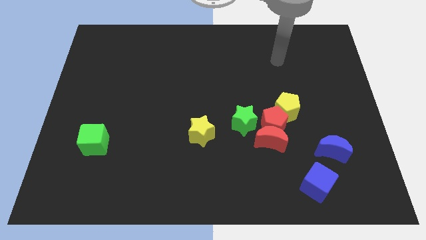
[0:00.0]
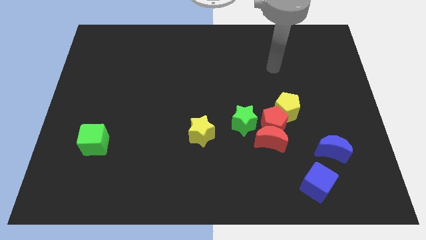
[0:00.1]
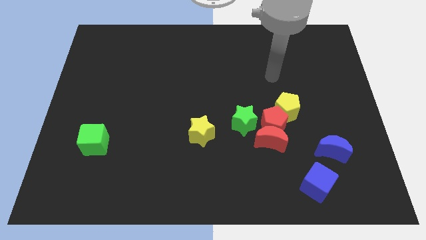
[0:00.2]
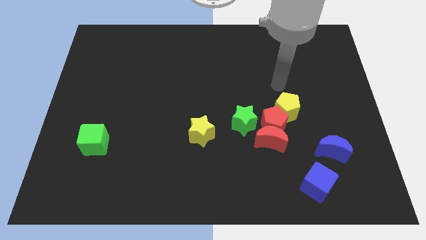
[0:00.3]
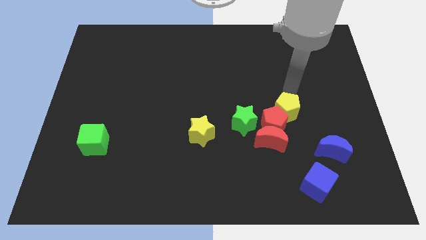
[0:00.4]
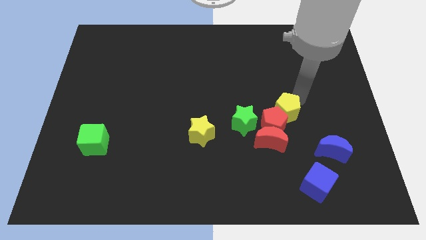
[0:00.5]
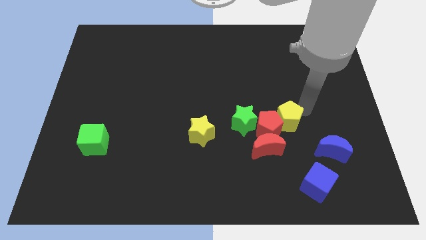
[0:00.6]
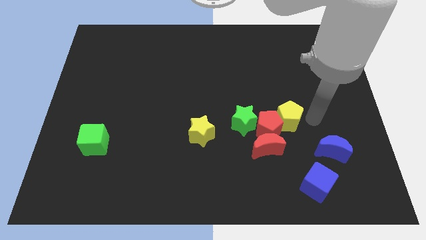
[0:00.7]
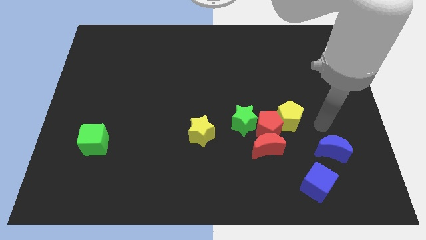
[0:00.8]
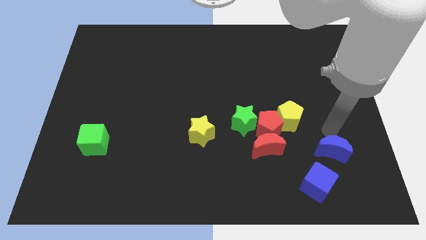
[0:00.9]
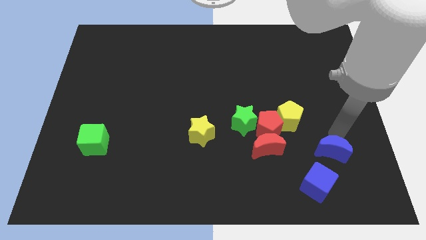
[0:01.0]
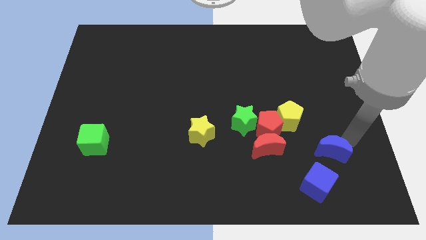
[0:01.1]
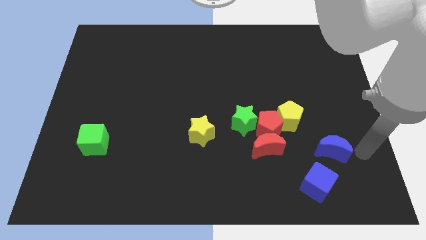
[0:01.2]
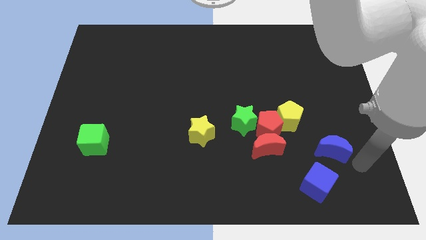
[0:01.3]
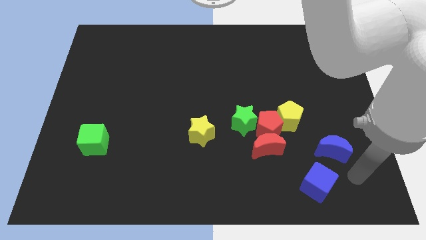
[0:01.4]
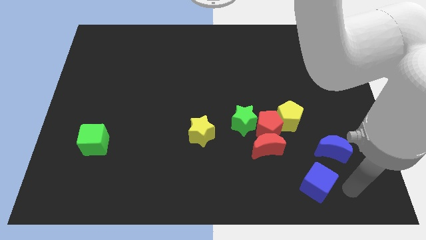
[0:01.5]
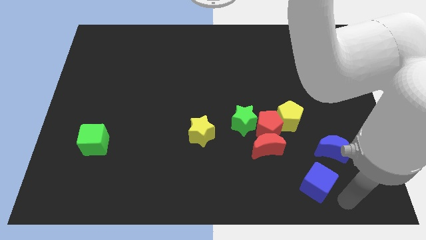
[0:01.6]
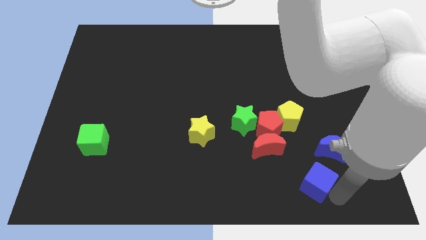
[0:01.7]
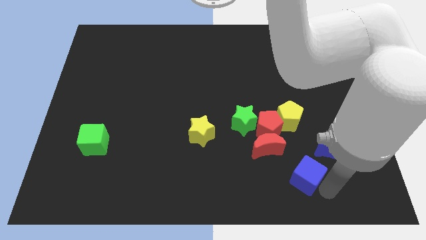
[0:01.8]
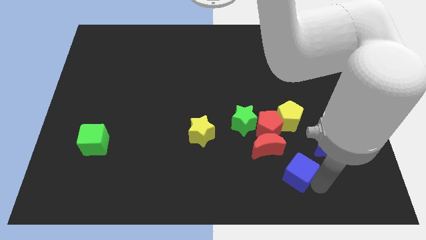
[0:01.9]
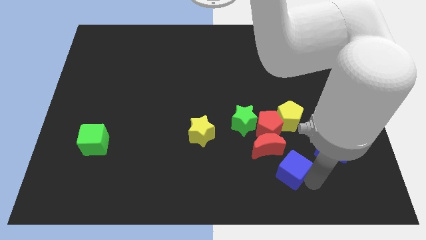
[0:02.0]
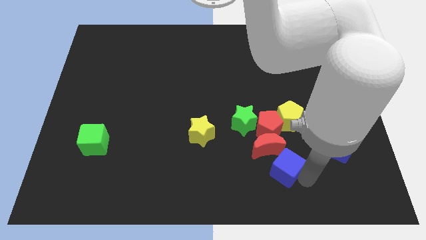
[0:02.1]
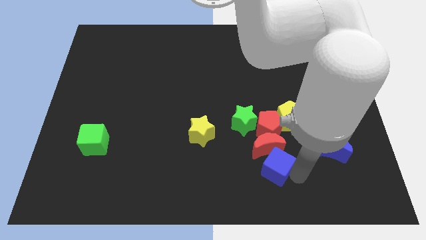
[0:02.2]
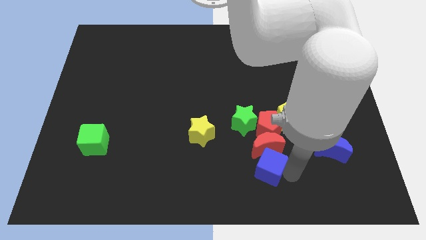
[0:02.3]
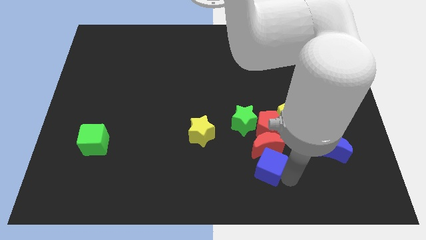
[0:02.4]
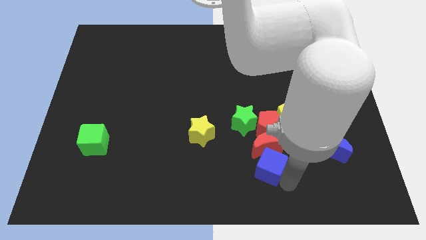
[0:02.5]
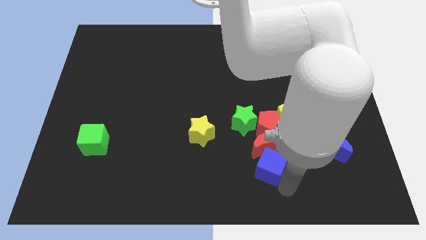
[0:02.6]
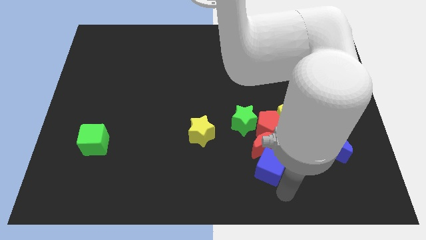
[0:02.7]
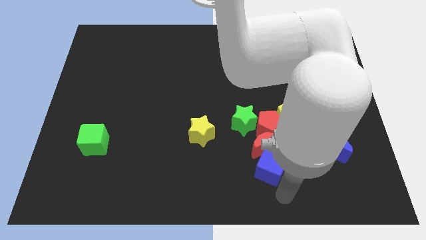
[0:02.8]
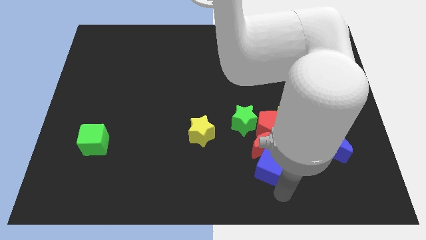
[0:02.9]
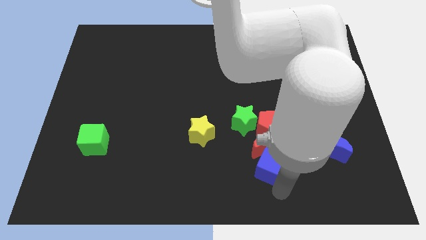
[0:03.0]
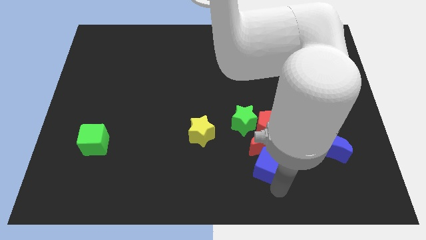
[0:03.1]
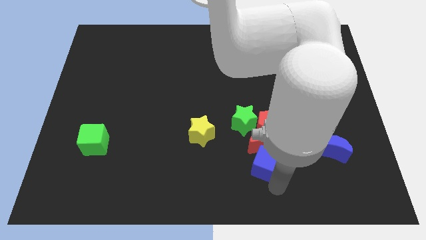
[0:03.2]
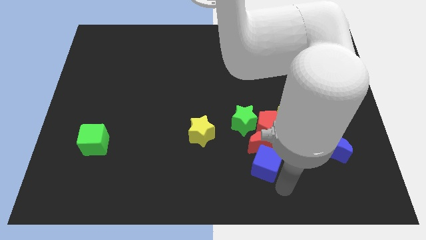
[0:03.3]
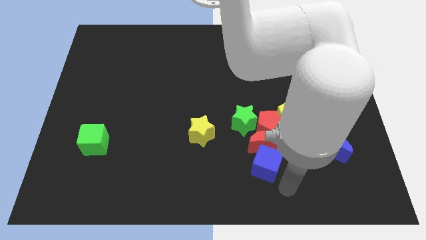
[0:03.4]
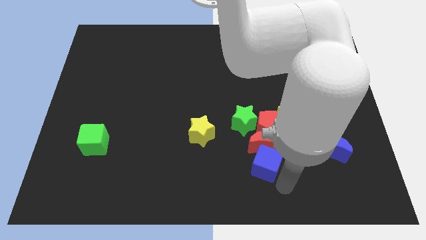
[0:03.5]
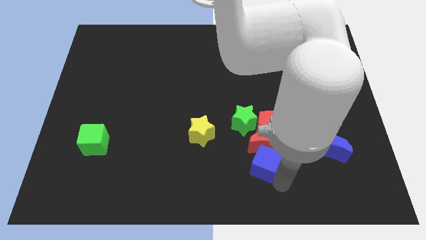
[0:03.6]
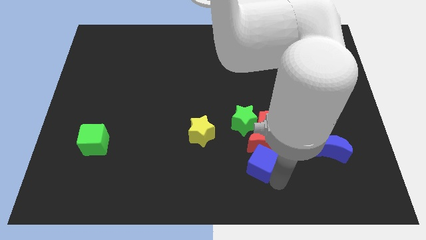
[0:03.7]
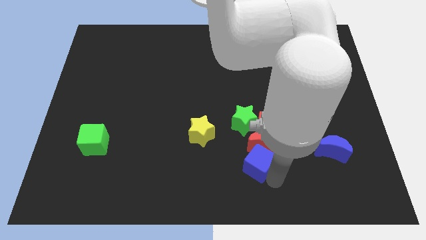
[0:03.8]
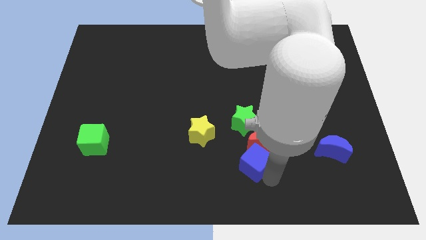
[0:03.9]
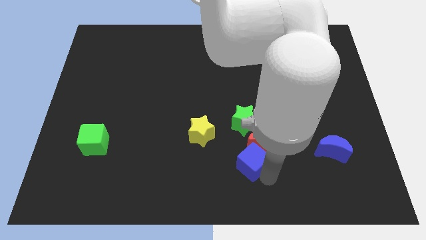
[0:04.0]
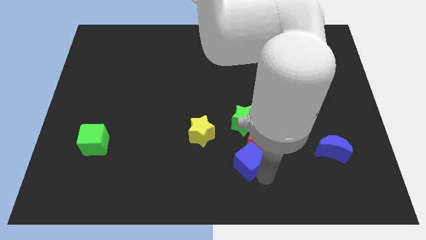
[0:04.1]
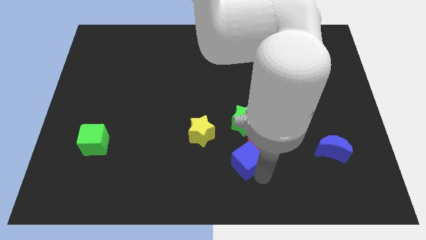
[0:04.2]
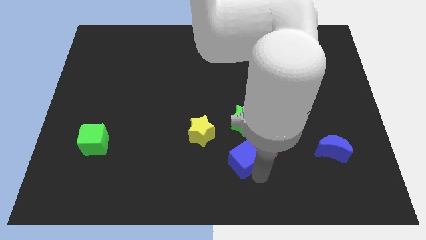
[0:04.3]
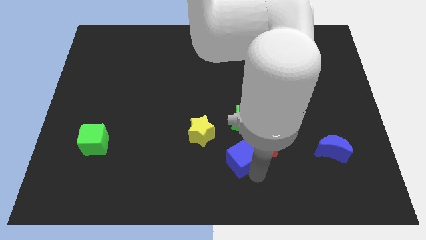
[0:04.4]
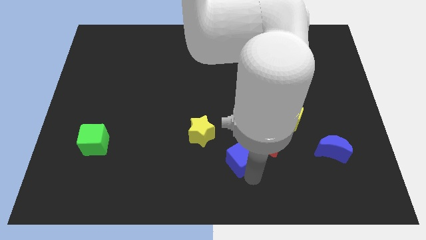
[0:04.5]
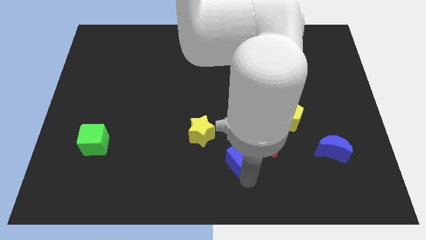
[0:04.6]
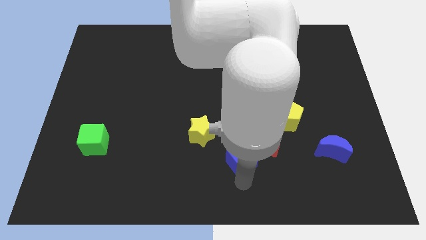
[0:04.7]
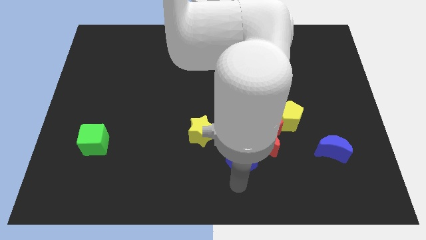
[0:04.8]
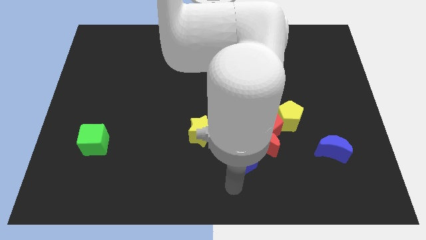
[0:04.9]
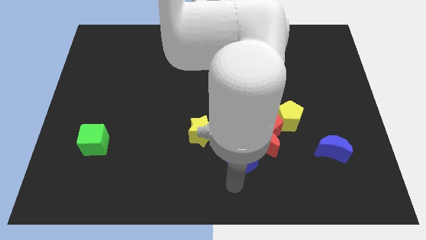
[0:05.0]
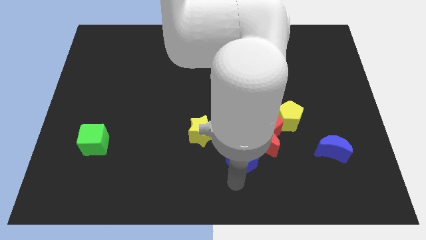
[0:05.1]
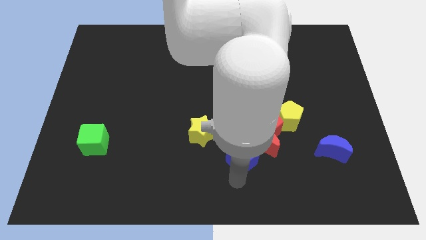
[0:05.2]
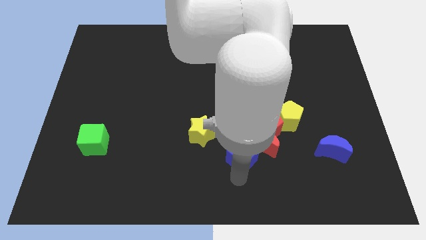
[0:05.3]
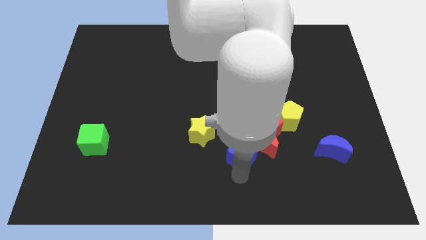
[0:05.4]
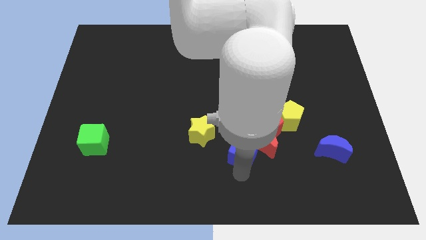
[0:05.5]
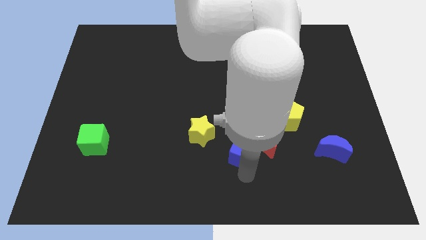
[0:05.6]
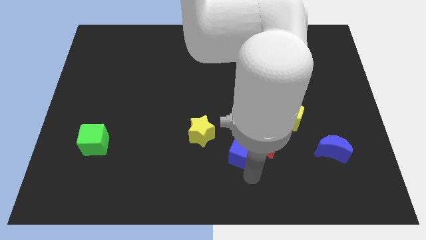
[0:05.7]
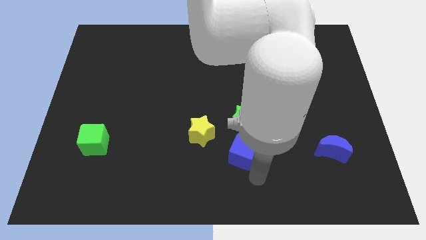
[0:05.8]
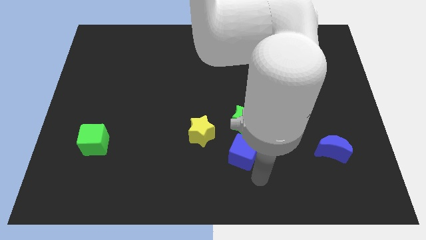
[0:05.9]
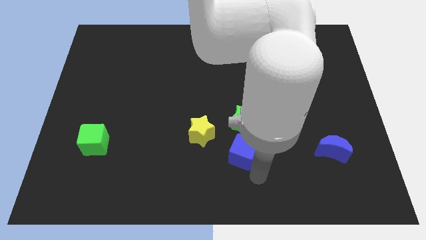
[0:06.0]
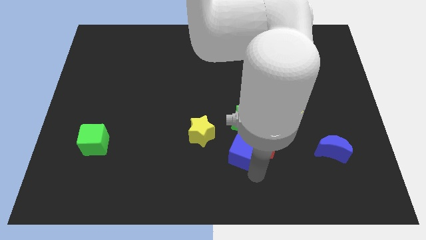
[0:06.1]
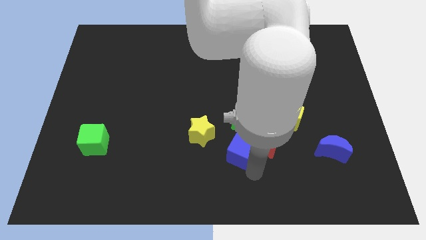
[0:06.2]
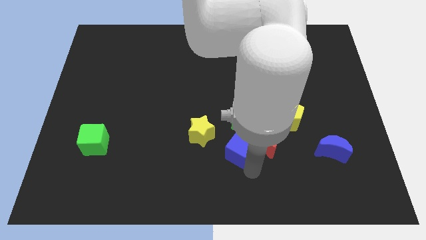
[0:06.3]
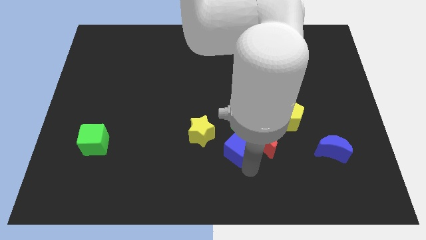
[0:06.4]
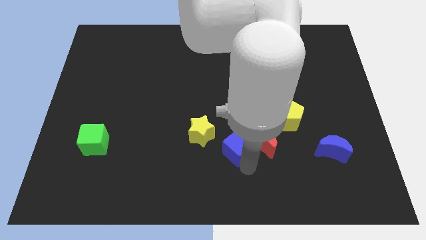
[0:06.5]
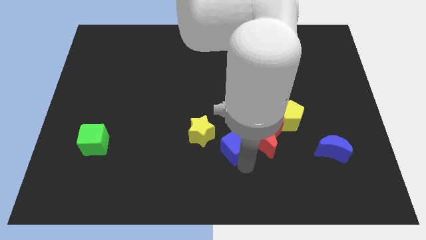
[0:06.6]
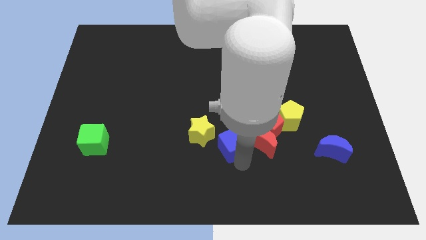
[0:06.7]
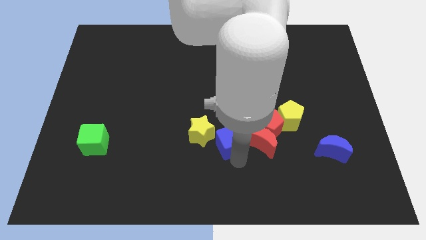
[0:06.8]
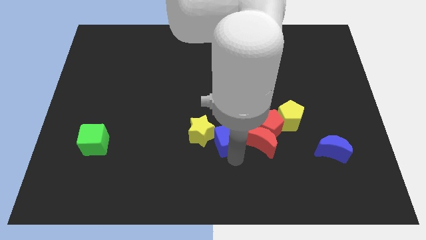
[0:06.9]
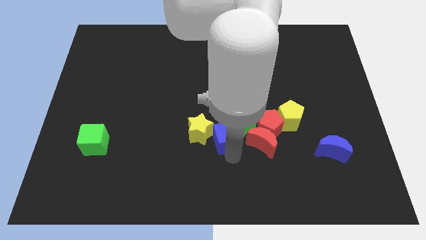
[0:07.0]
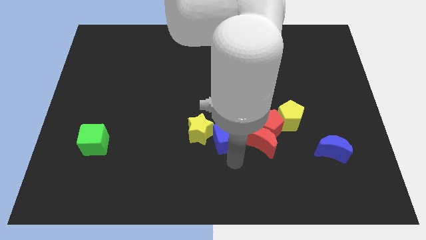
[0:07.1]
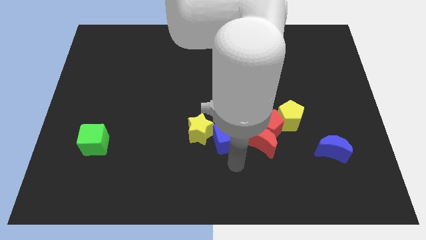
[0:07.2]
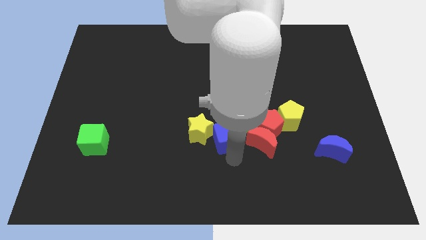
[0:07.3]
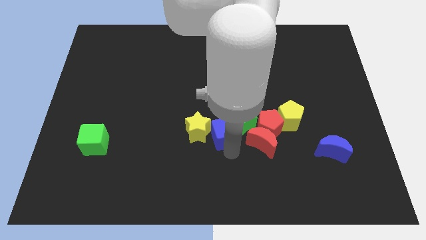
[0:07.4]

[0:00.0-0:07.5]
move the blue cube up and to the left diagonally

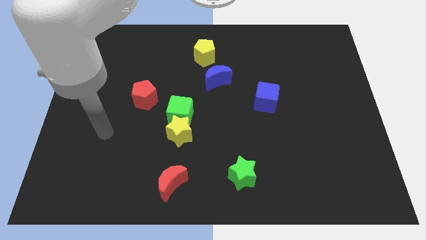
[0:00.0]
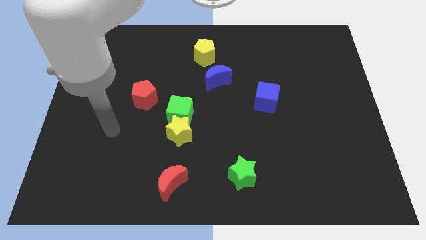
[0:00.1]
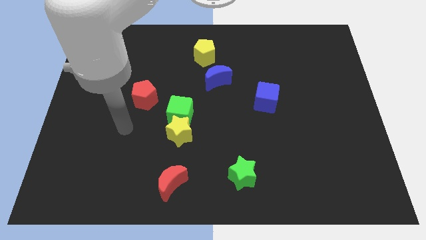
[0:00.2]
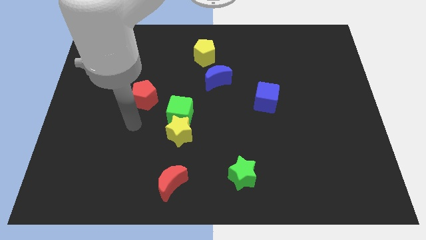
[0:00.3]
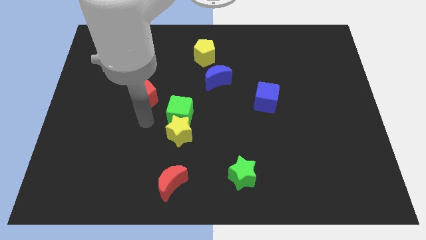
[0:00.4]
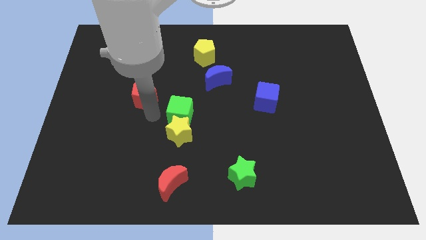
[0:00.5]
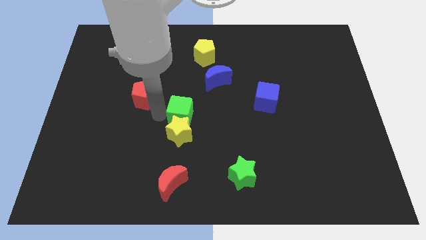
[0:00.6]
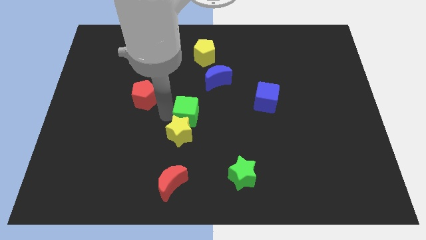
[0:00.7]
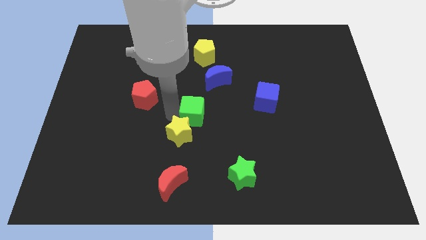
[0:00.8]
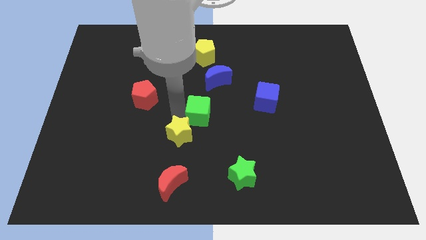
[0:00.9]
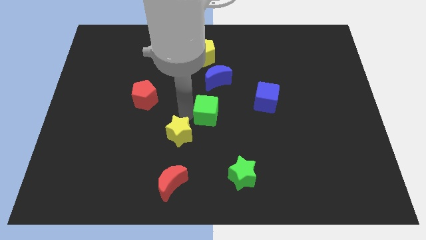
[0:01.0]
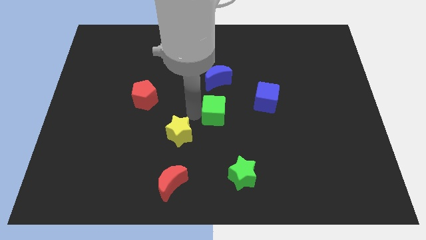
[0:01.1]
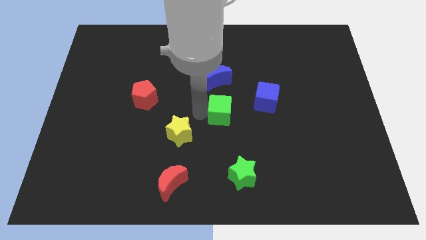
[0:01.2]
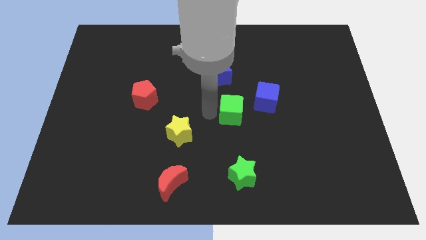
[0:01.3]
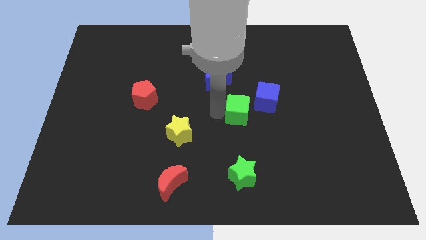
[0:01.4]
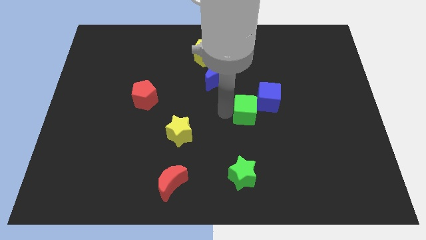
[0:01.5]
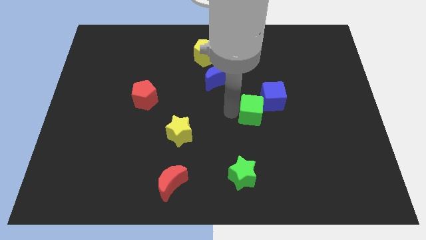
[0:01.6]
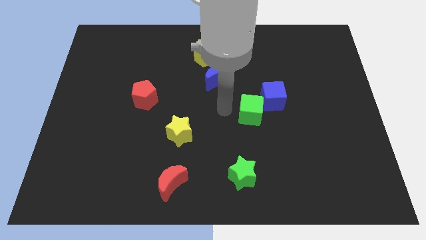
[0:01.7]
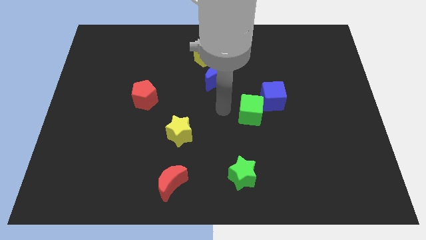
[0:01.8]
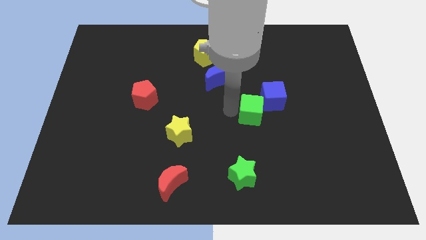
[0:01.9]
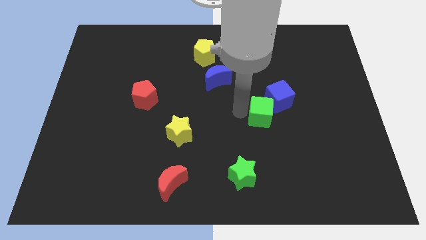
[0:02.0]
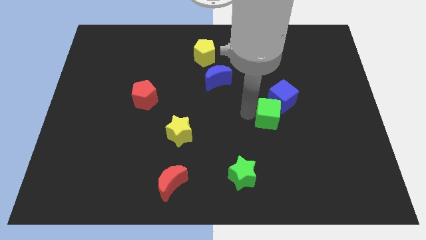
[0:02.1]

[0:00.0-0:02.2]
move the green cube right
